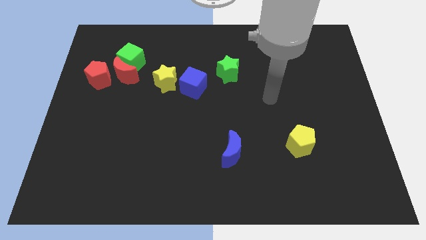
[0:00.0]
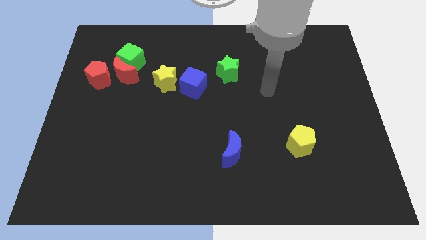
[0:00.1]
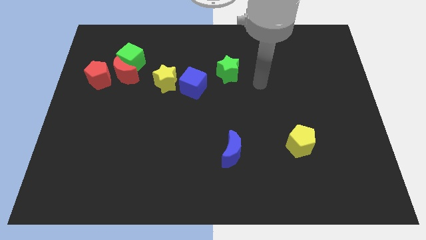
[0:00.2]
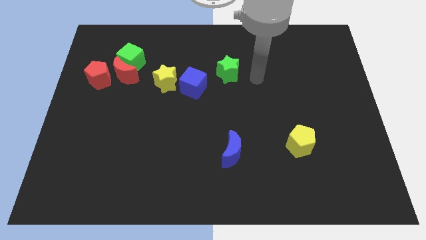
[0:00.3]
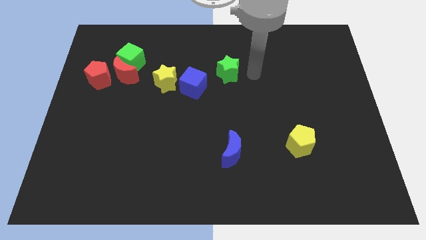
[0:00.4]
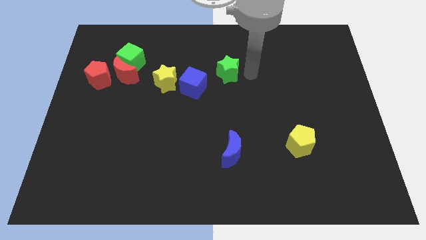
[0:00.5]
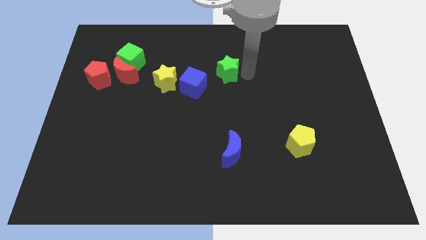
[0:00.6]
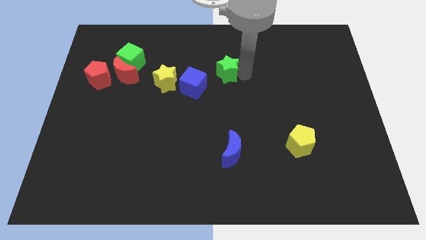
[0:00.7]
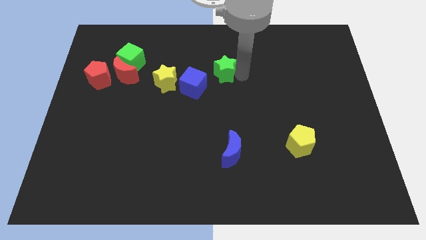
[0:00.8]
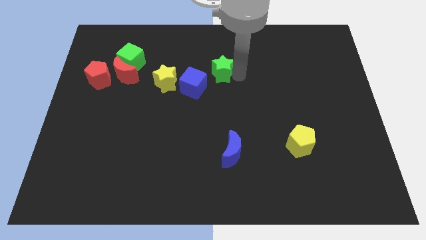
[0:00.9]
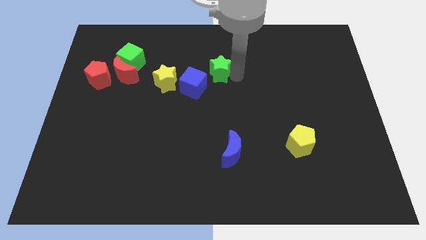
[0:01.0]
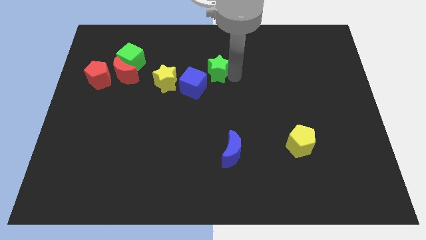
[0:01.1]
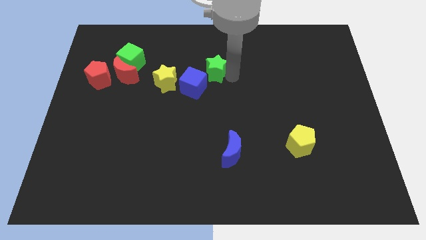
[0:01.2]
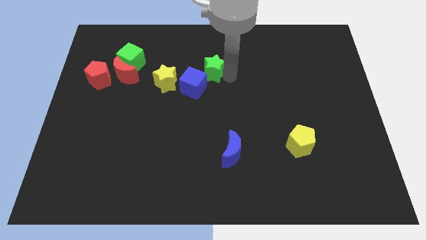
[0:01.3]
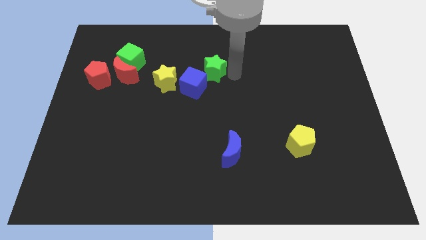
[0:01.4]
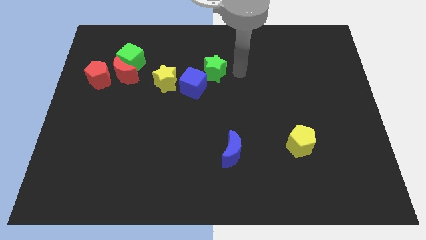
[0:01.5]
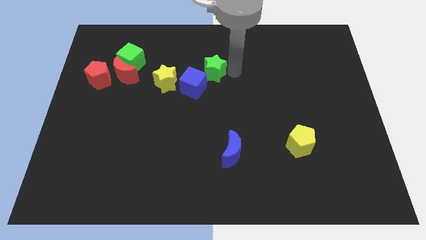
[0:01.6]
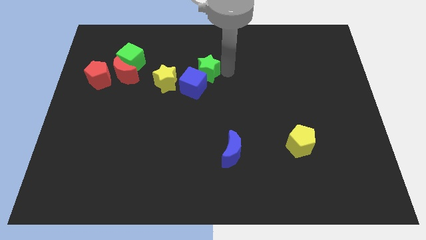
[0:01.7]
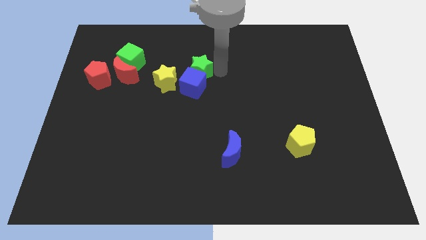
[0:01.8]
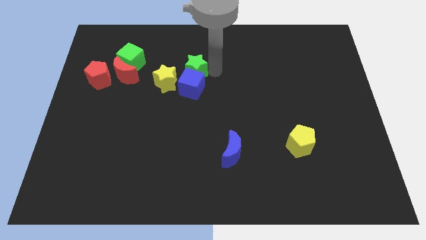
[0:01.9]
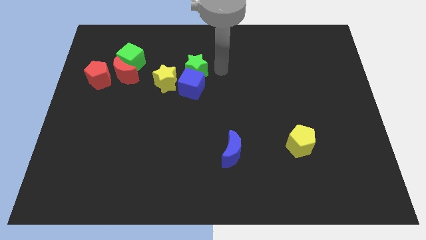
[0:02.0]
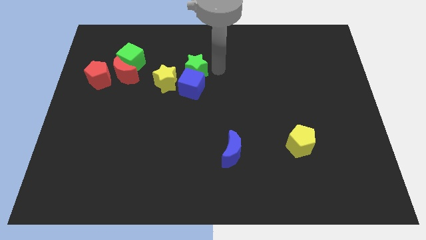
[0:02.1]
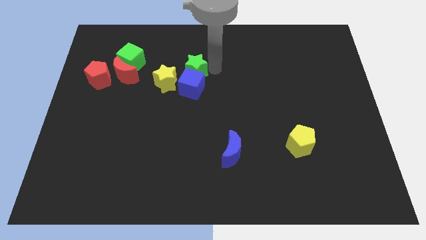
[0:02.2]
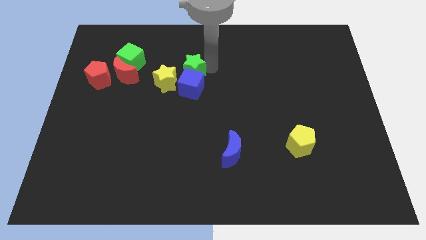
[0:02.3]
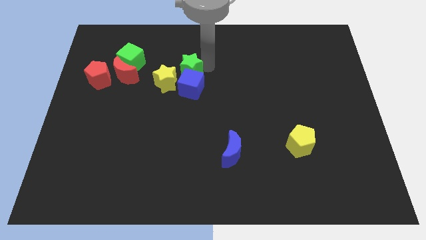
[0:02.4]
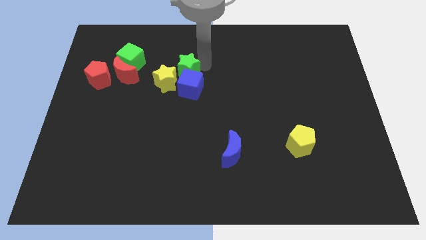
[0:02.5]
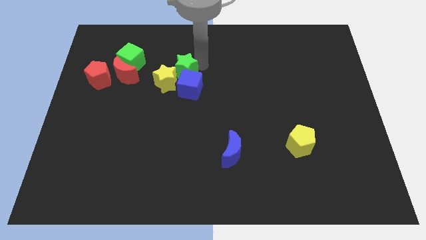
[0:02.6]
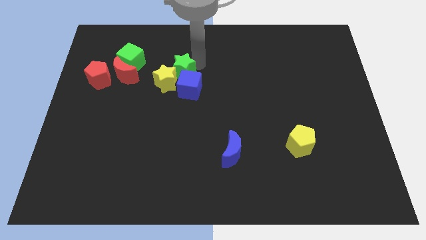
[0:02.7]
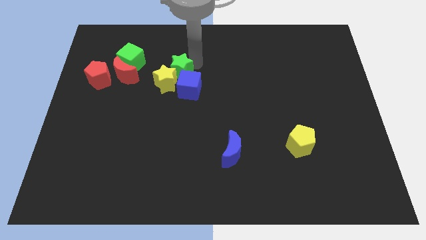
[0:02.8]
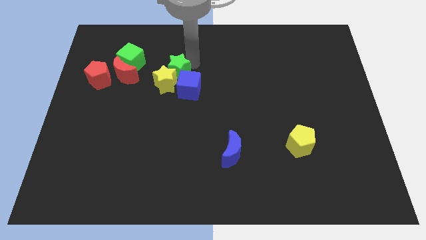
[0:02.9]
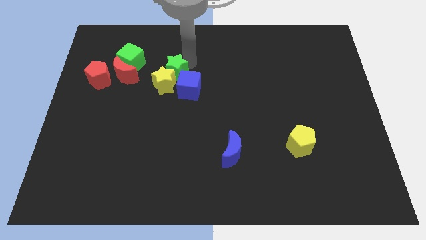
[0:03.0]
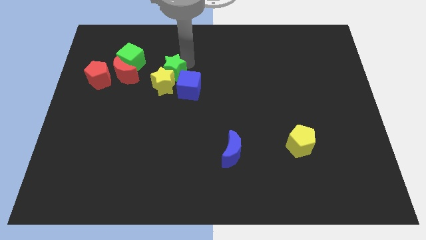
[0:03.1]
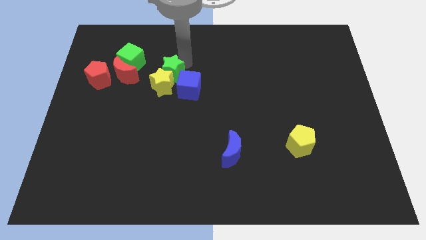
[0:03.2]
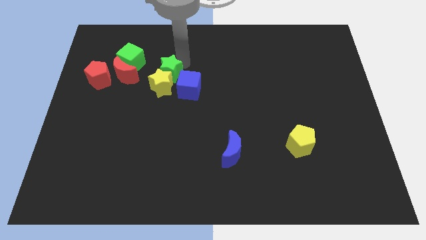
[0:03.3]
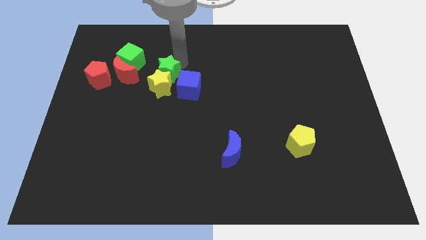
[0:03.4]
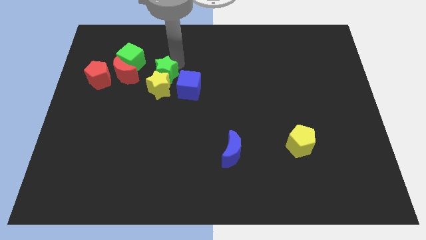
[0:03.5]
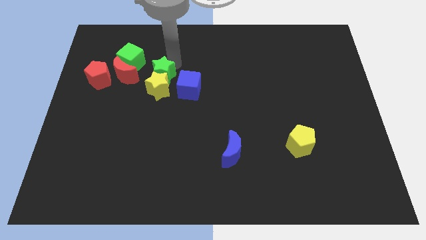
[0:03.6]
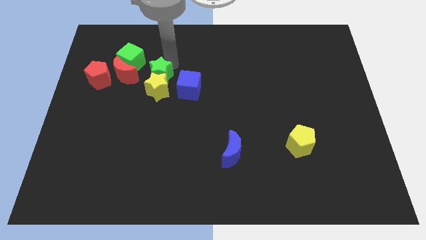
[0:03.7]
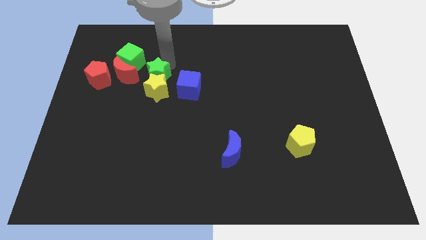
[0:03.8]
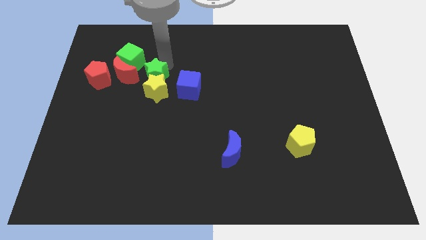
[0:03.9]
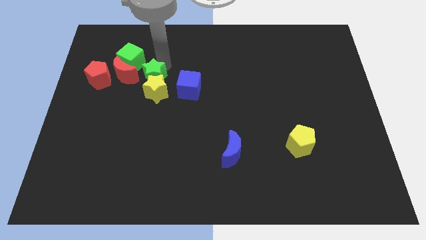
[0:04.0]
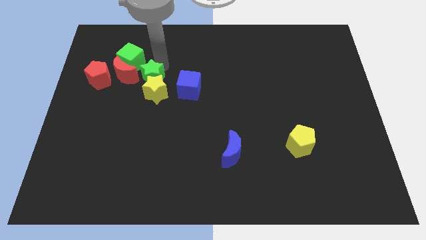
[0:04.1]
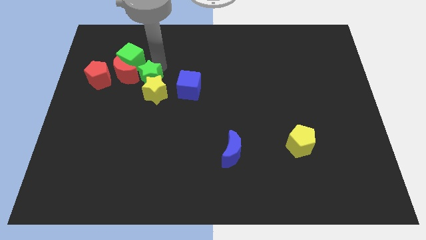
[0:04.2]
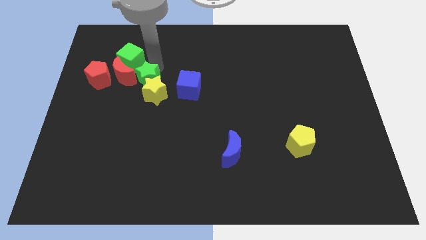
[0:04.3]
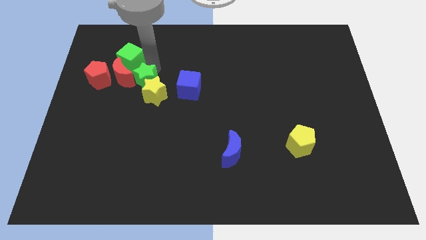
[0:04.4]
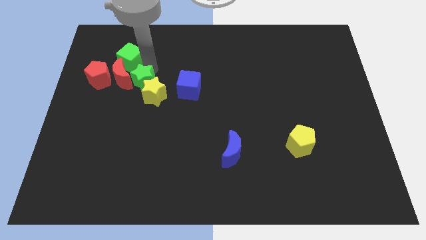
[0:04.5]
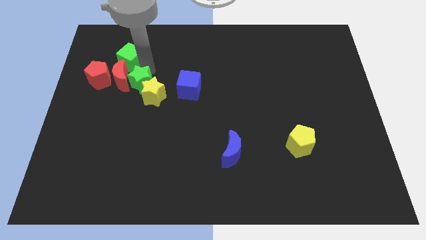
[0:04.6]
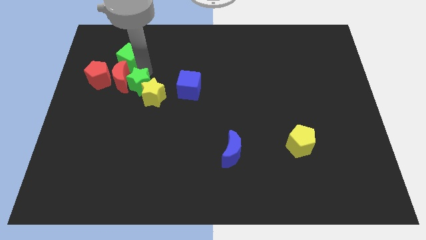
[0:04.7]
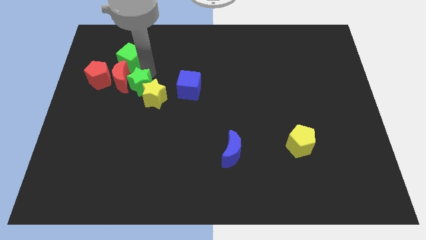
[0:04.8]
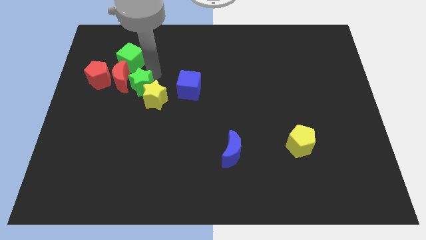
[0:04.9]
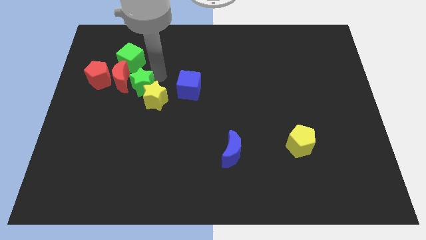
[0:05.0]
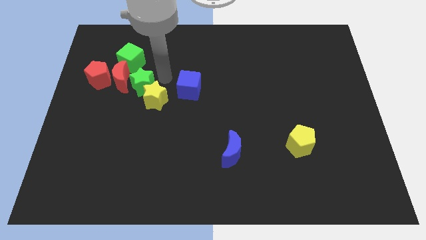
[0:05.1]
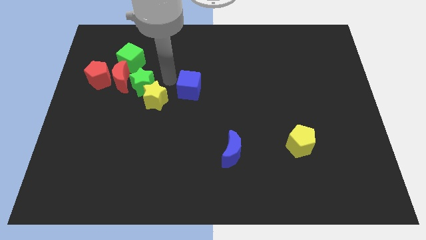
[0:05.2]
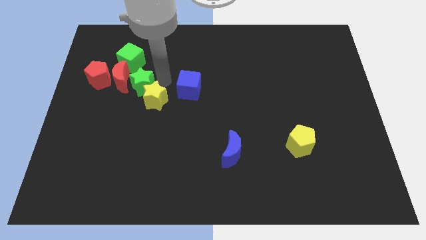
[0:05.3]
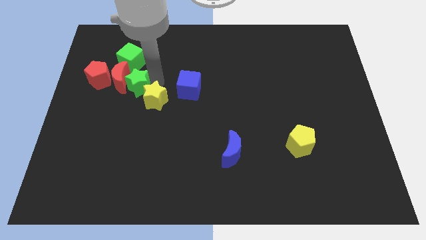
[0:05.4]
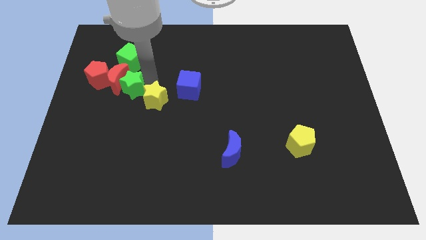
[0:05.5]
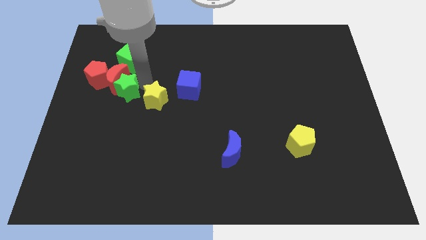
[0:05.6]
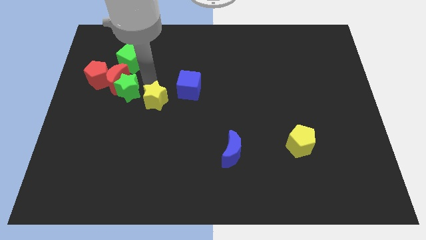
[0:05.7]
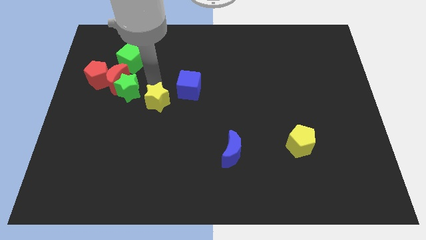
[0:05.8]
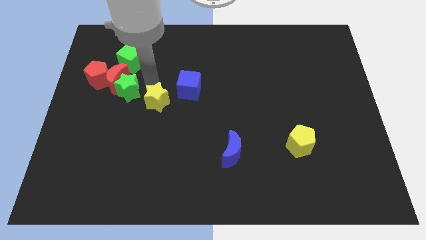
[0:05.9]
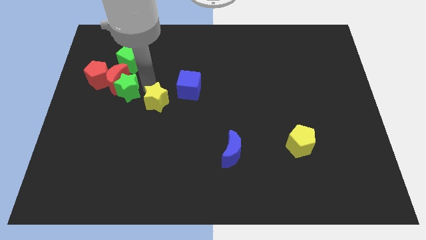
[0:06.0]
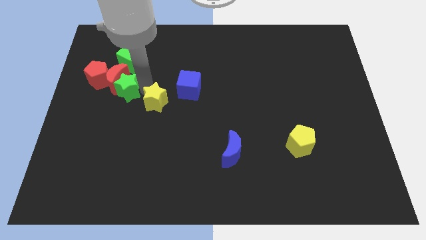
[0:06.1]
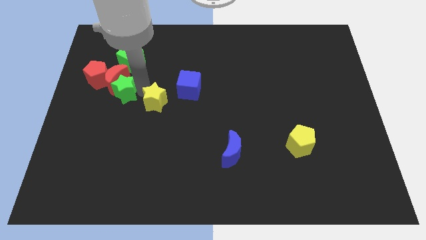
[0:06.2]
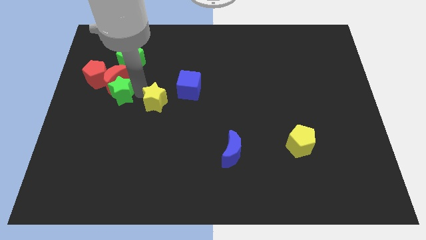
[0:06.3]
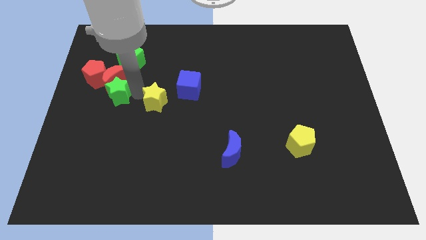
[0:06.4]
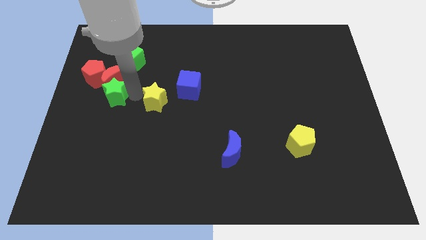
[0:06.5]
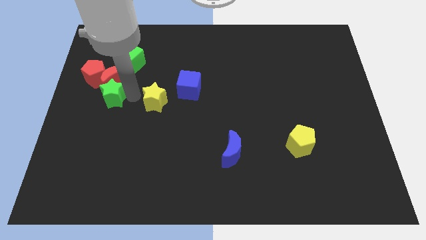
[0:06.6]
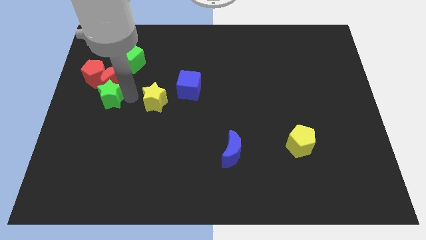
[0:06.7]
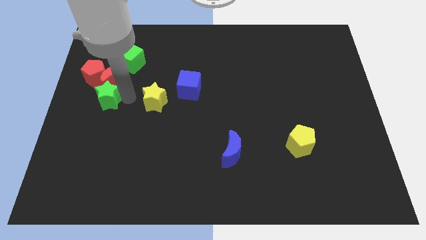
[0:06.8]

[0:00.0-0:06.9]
push the green star to the left side
